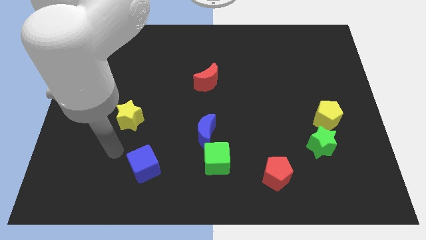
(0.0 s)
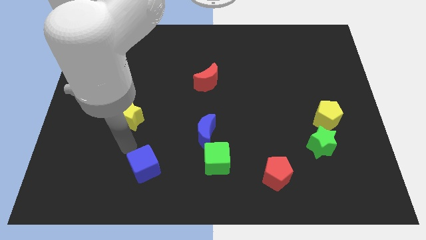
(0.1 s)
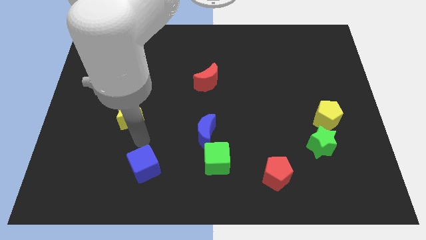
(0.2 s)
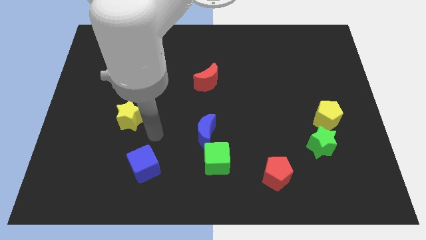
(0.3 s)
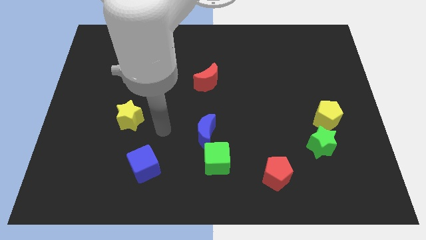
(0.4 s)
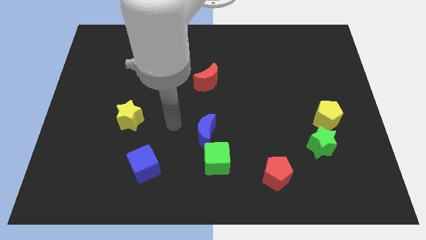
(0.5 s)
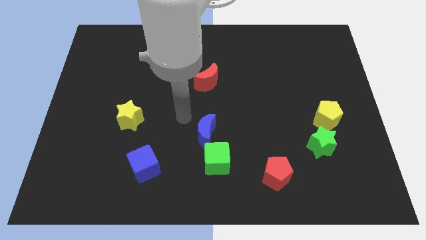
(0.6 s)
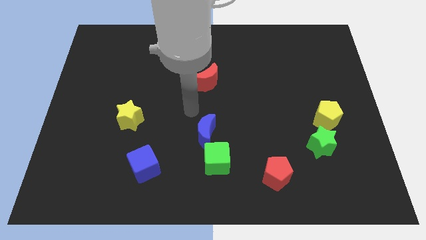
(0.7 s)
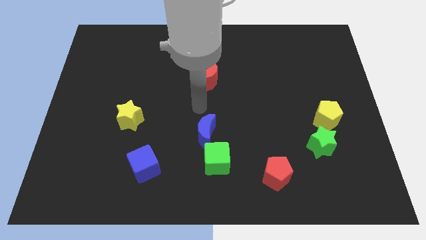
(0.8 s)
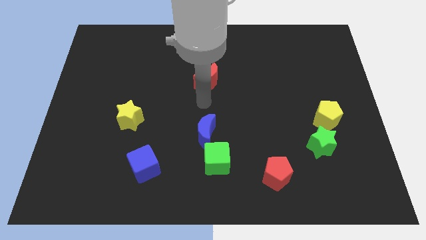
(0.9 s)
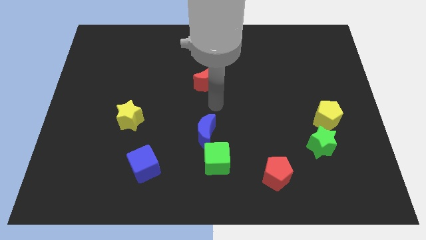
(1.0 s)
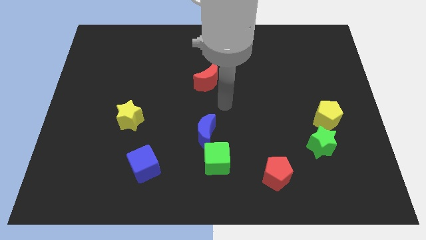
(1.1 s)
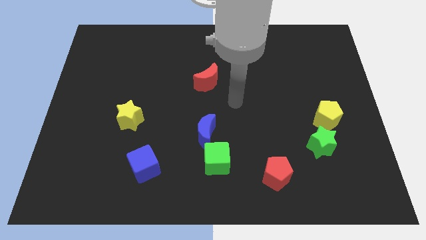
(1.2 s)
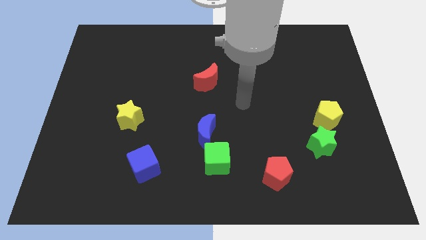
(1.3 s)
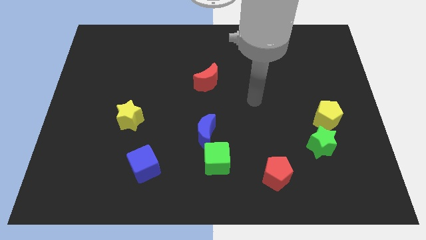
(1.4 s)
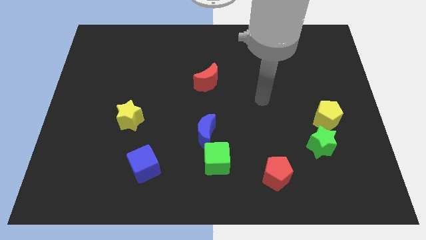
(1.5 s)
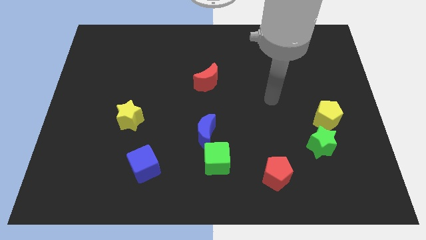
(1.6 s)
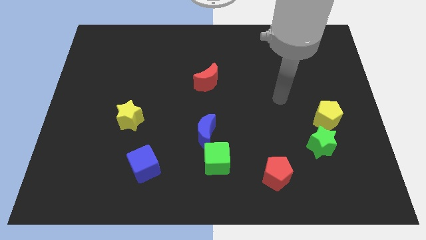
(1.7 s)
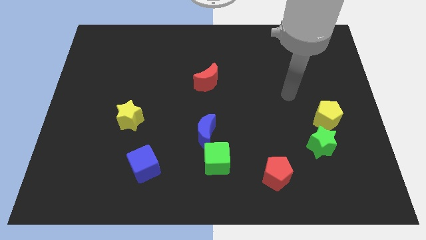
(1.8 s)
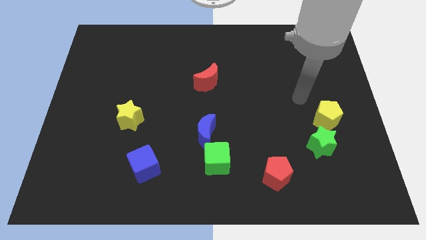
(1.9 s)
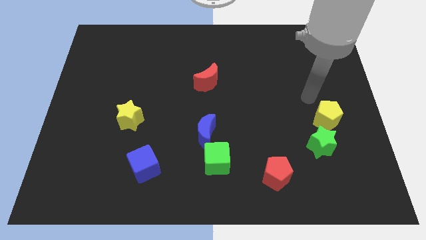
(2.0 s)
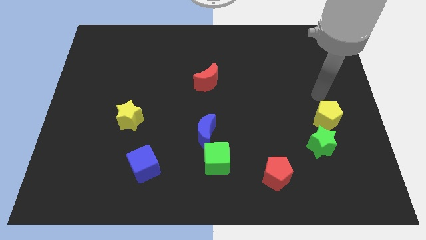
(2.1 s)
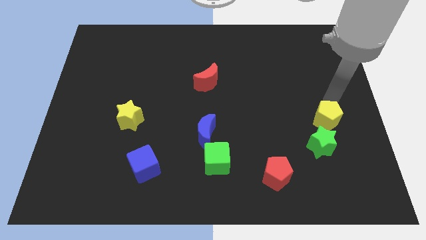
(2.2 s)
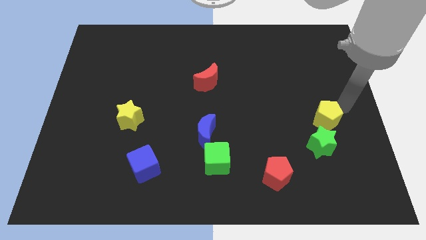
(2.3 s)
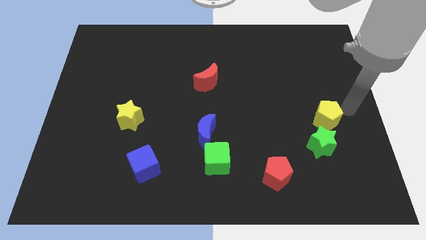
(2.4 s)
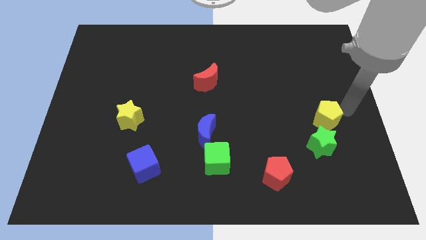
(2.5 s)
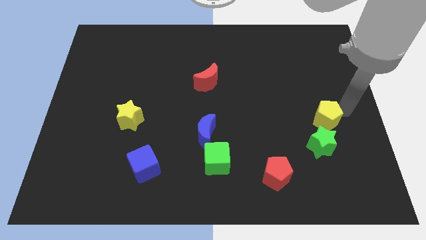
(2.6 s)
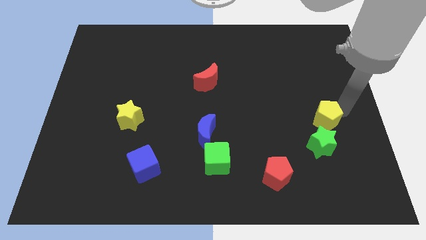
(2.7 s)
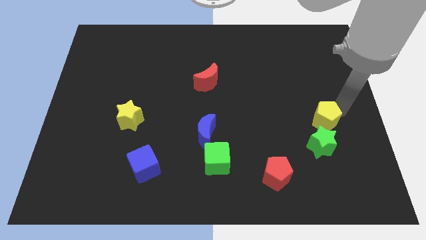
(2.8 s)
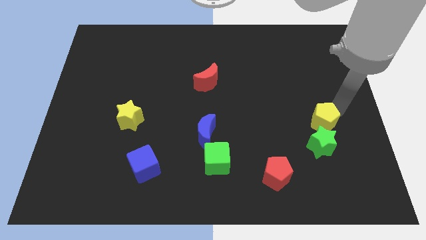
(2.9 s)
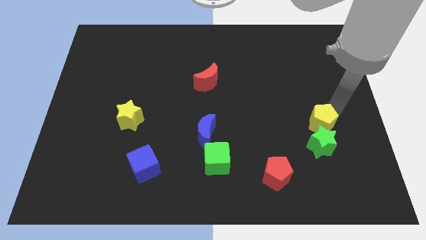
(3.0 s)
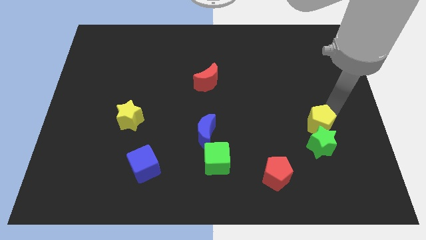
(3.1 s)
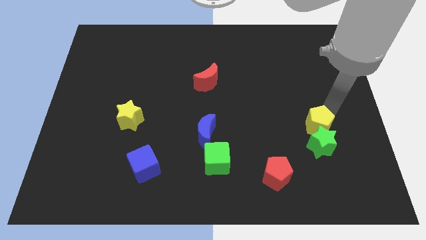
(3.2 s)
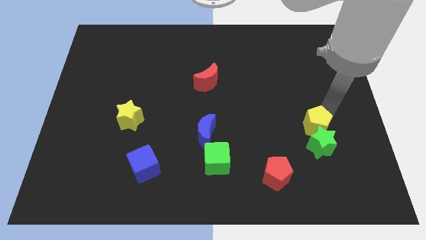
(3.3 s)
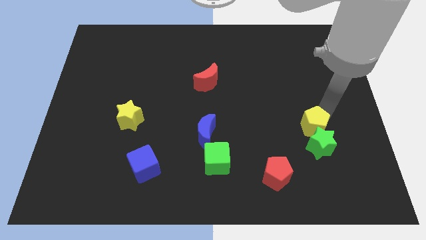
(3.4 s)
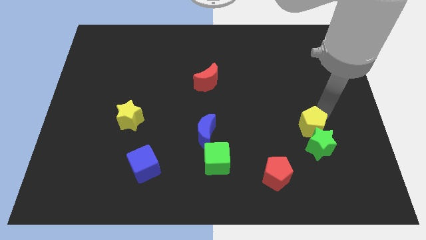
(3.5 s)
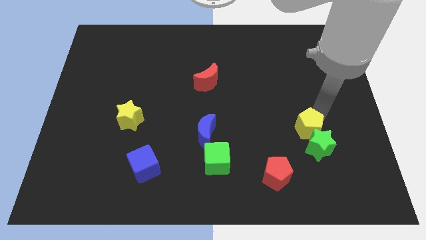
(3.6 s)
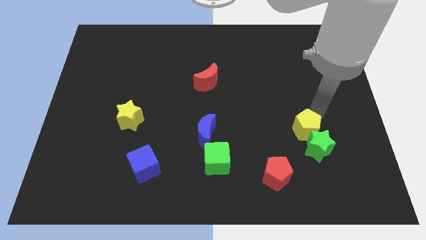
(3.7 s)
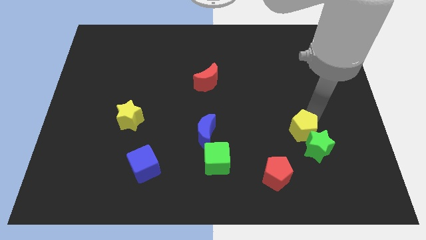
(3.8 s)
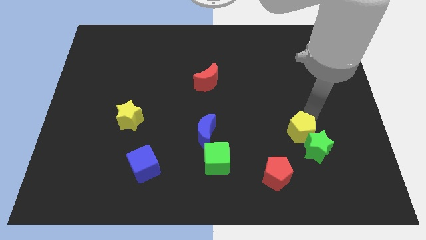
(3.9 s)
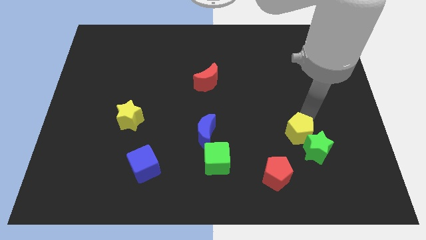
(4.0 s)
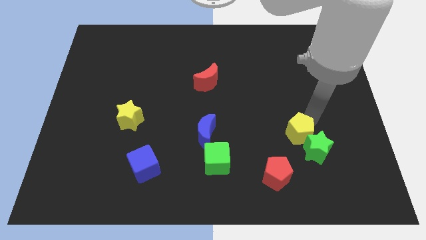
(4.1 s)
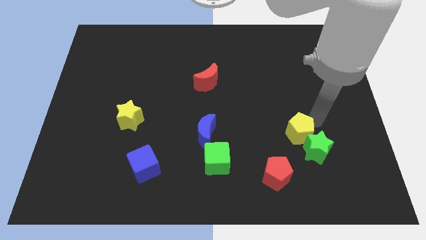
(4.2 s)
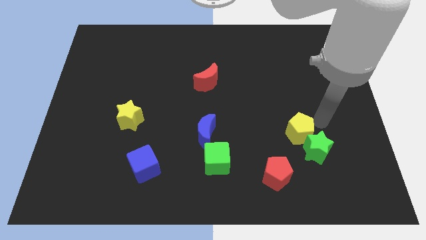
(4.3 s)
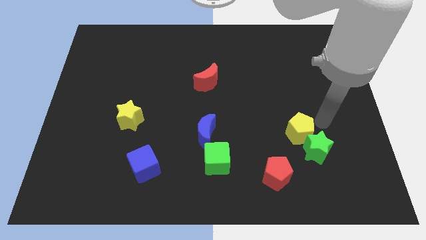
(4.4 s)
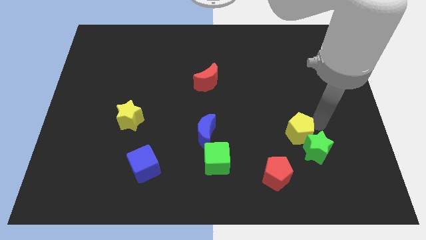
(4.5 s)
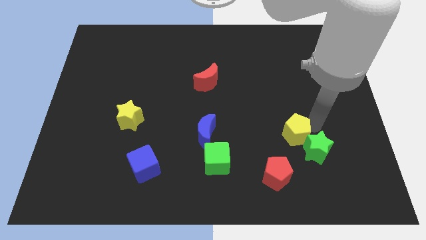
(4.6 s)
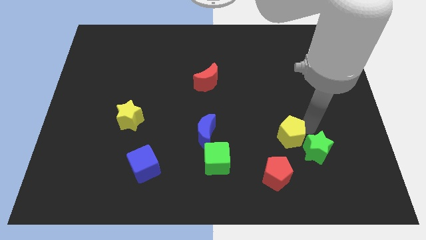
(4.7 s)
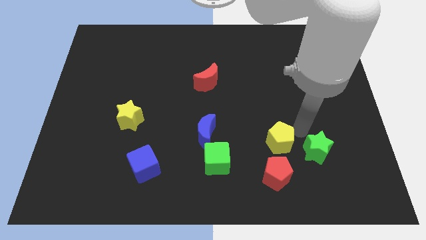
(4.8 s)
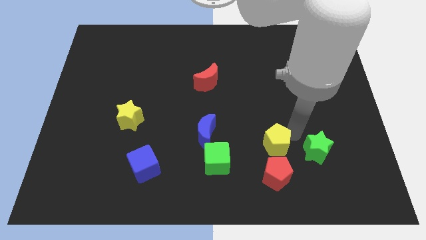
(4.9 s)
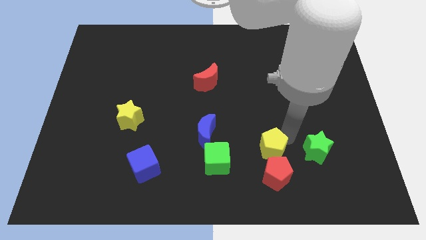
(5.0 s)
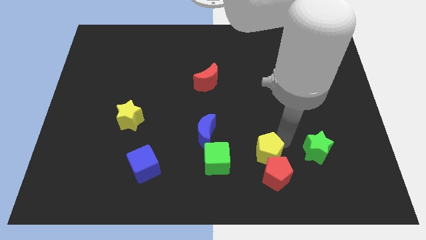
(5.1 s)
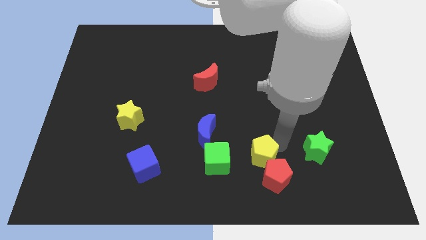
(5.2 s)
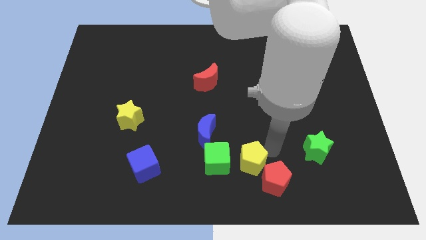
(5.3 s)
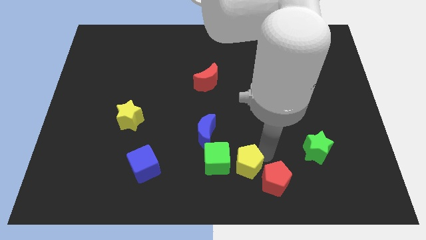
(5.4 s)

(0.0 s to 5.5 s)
slide the yellow pentagon close to the green cube

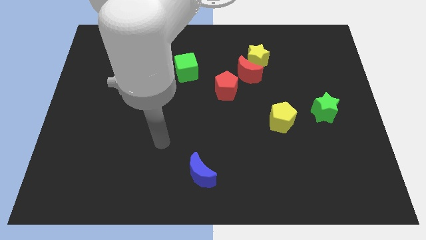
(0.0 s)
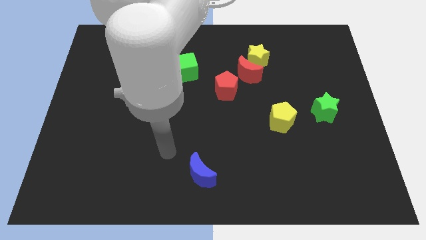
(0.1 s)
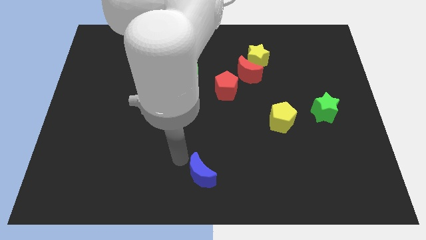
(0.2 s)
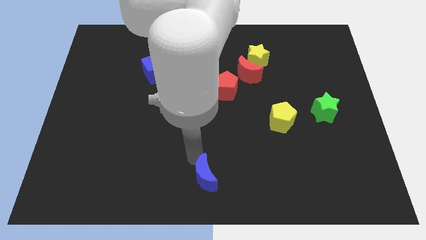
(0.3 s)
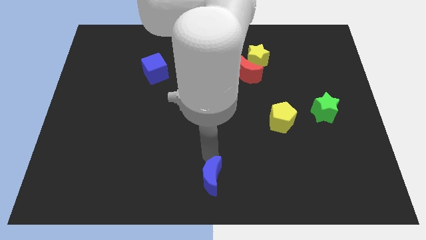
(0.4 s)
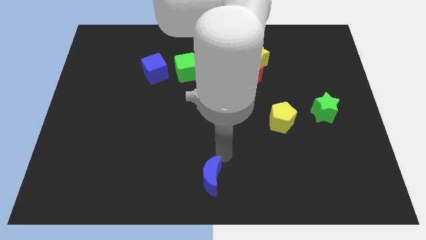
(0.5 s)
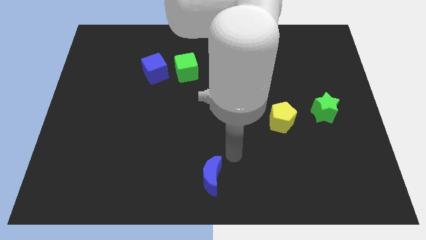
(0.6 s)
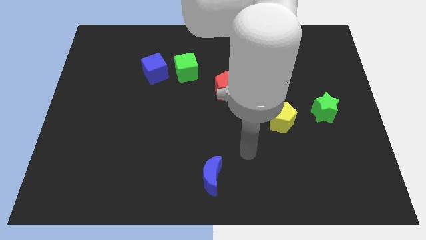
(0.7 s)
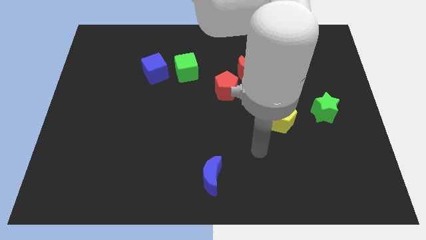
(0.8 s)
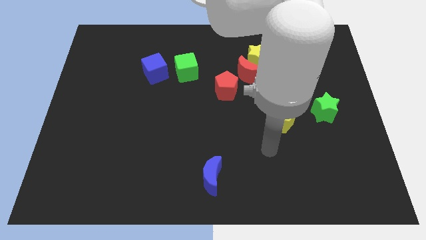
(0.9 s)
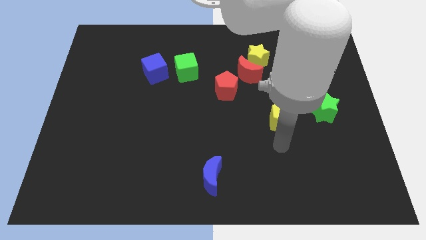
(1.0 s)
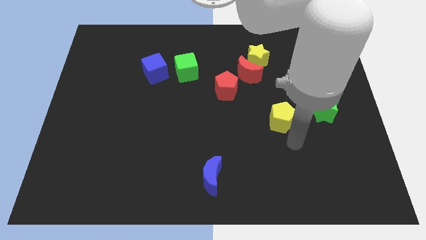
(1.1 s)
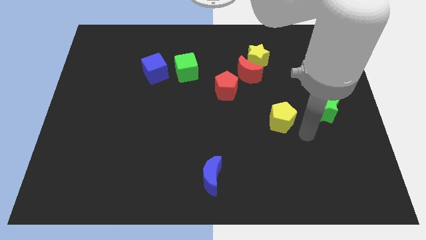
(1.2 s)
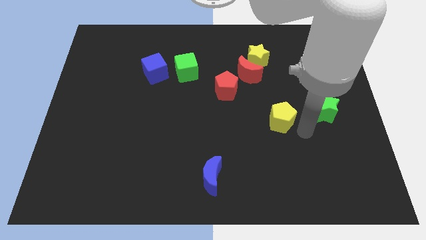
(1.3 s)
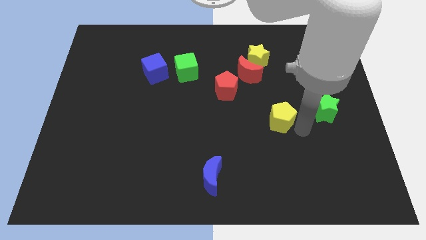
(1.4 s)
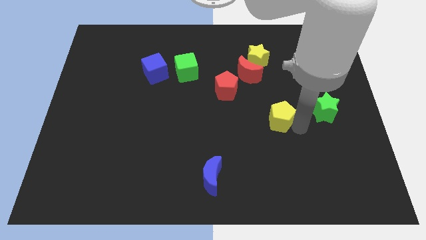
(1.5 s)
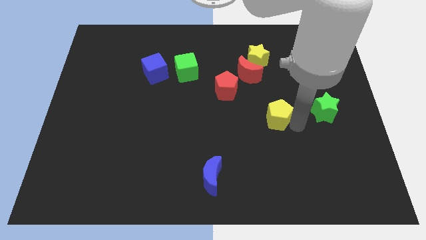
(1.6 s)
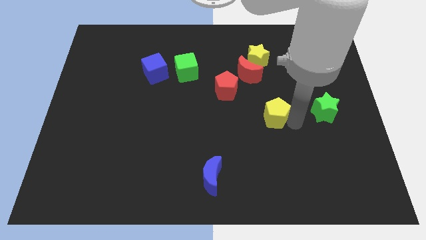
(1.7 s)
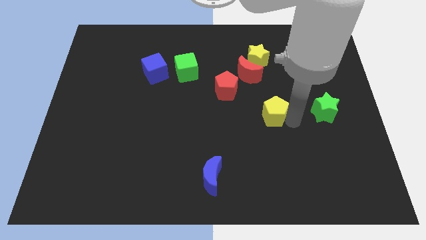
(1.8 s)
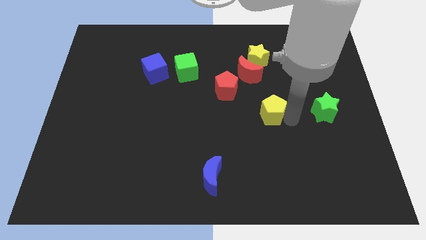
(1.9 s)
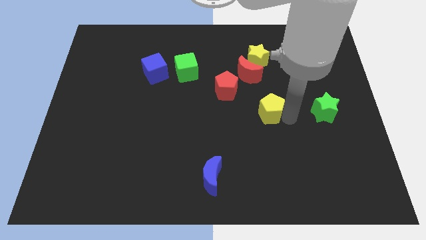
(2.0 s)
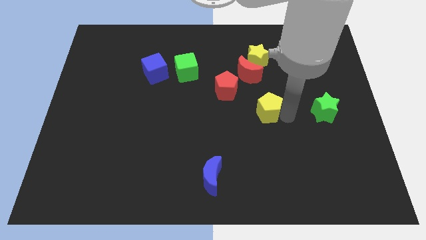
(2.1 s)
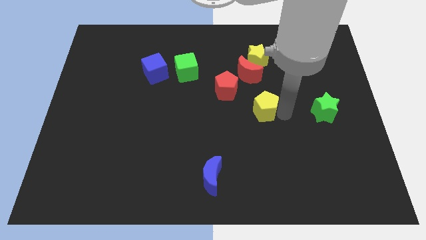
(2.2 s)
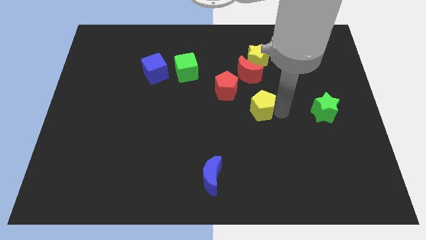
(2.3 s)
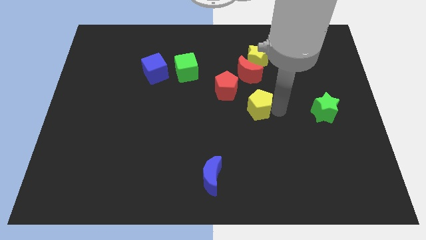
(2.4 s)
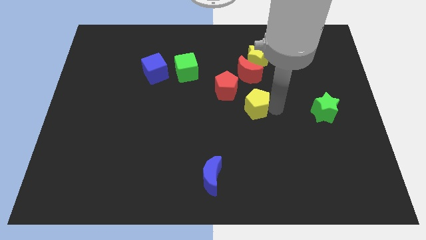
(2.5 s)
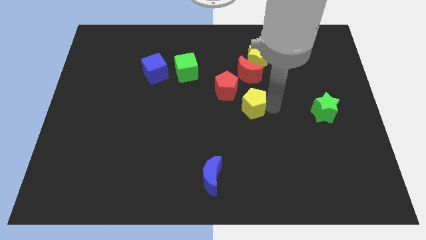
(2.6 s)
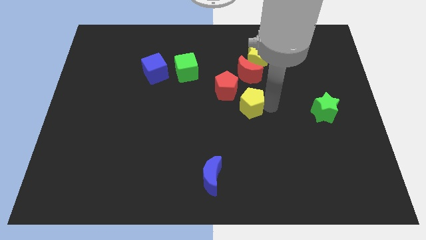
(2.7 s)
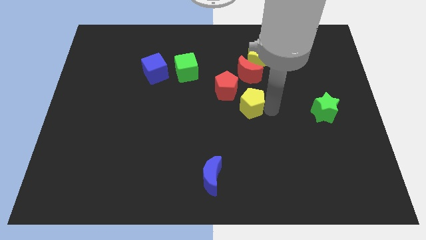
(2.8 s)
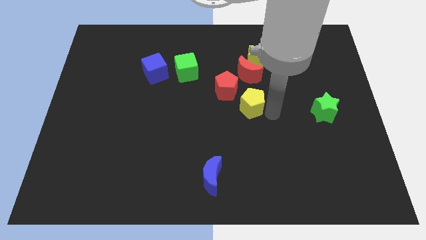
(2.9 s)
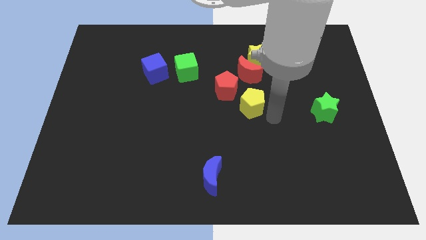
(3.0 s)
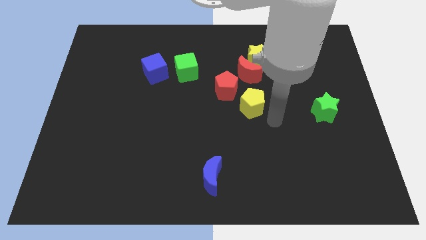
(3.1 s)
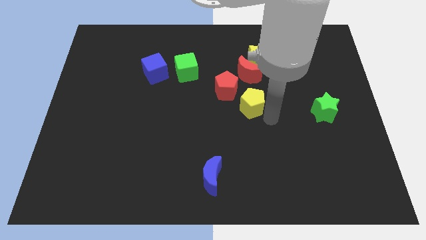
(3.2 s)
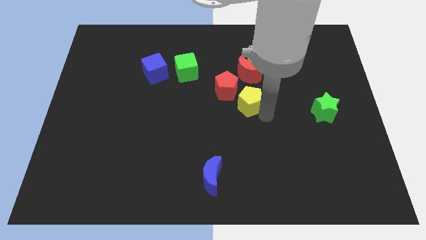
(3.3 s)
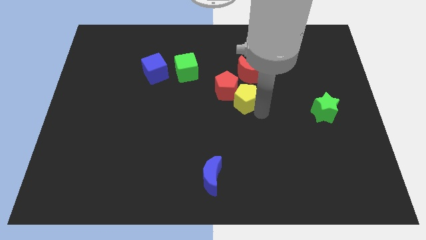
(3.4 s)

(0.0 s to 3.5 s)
move the yellow pentagon next to the red pentagon

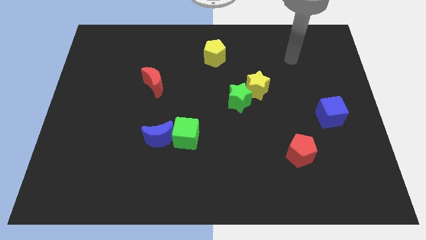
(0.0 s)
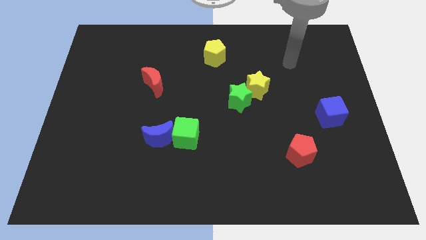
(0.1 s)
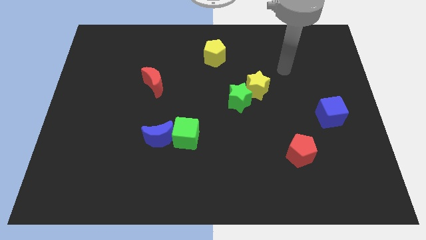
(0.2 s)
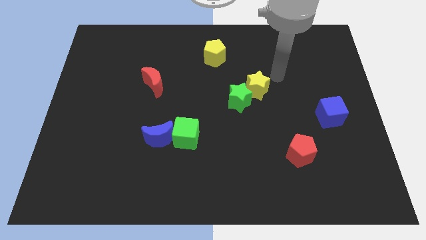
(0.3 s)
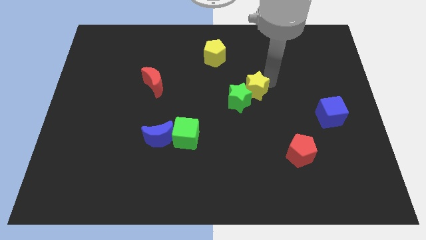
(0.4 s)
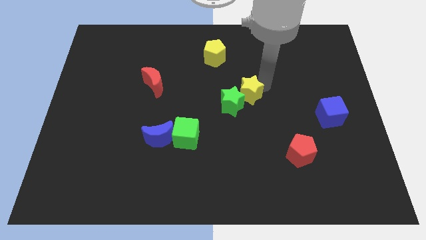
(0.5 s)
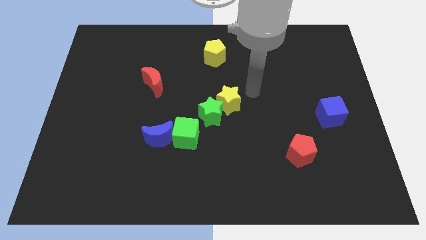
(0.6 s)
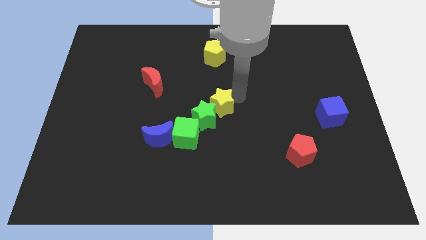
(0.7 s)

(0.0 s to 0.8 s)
put the green star towards the green cube
